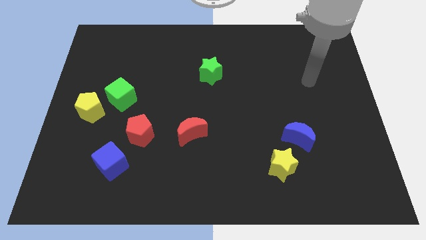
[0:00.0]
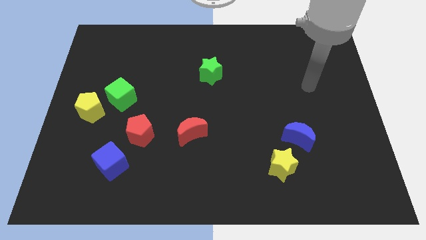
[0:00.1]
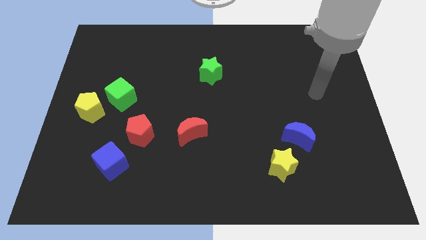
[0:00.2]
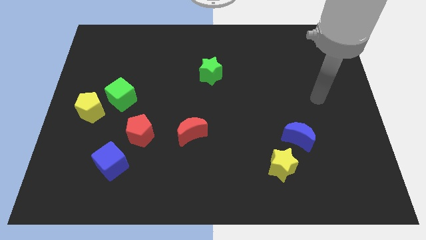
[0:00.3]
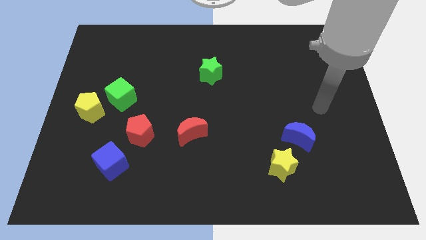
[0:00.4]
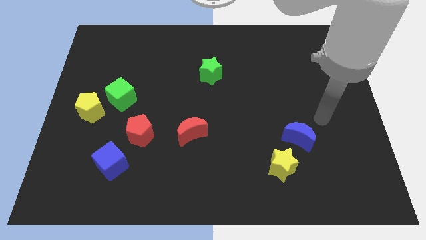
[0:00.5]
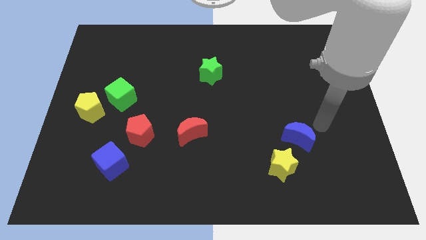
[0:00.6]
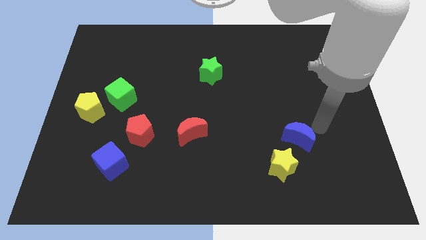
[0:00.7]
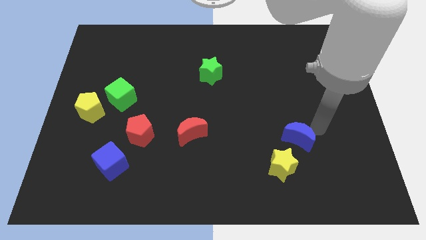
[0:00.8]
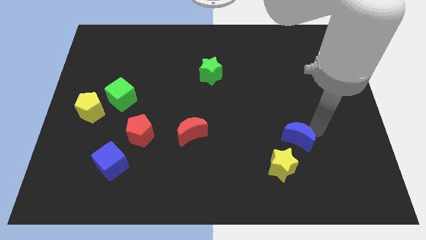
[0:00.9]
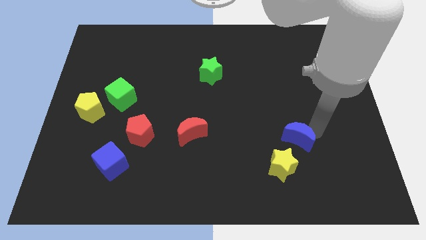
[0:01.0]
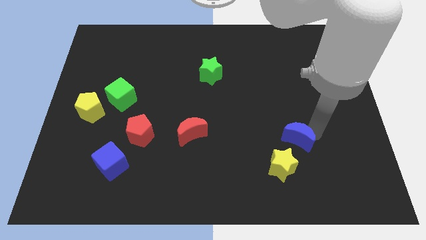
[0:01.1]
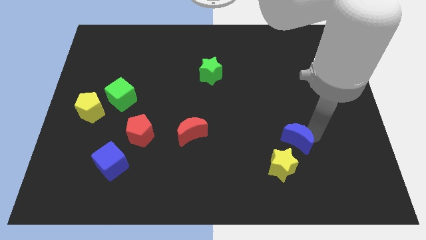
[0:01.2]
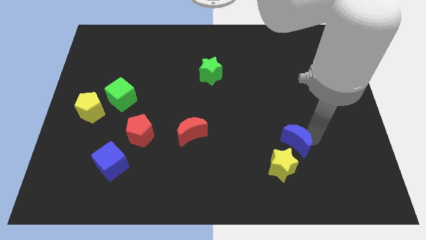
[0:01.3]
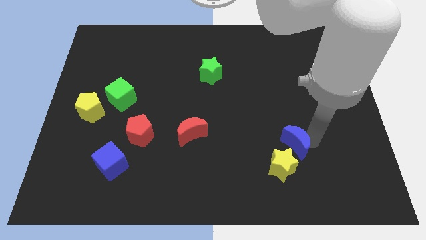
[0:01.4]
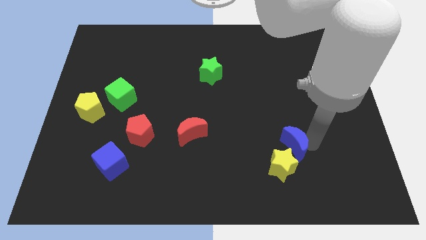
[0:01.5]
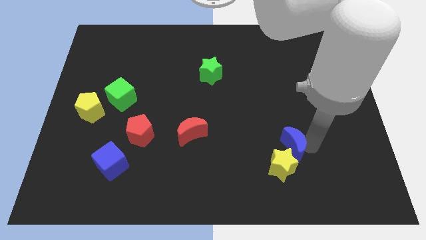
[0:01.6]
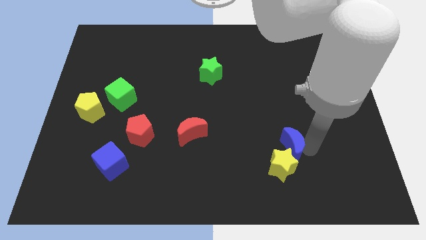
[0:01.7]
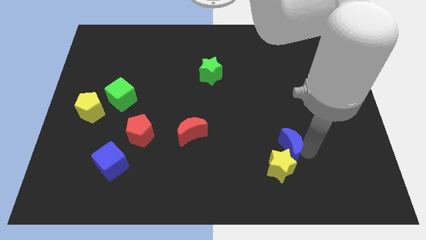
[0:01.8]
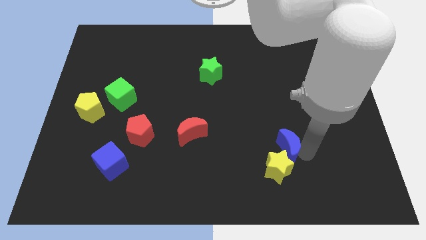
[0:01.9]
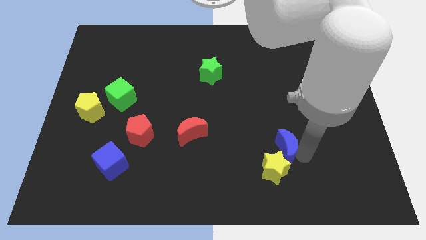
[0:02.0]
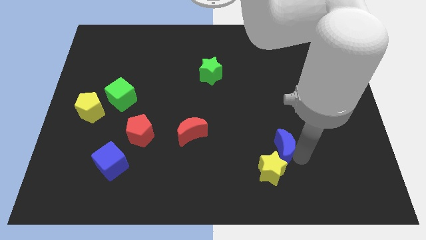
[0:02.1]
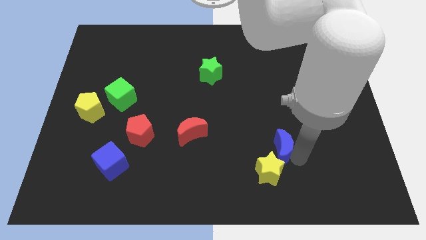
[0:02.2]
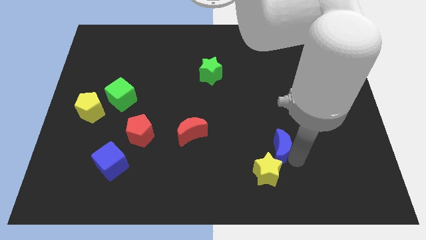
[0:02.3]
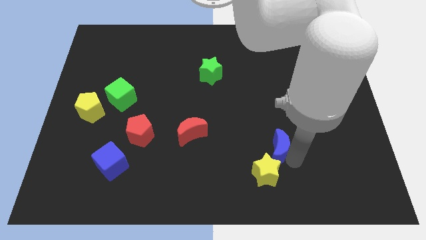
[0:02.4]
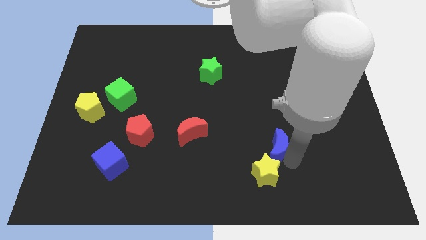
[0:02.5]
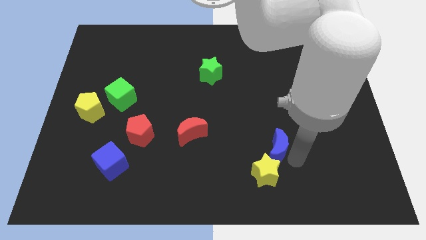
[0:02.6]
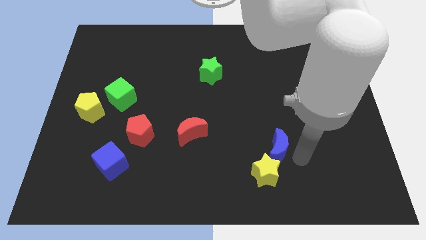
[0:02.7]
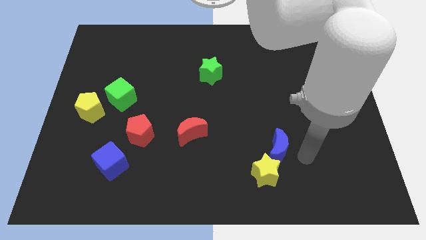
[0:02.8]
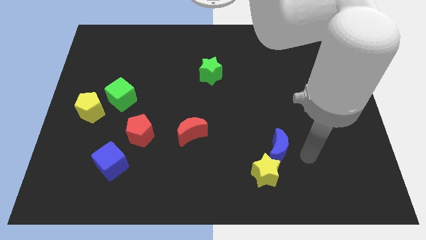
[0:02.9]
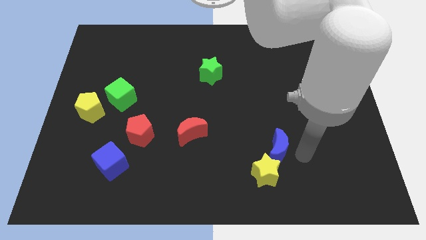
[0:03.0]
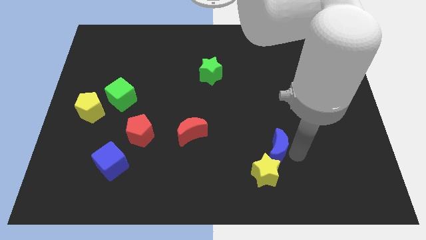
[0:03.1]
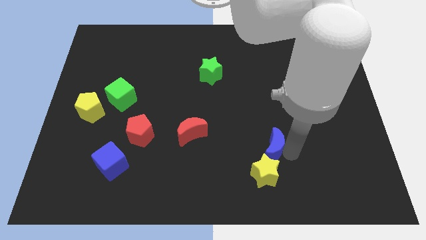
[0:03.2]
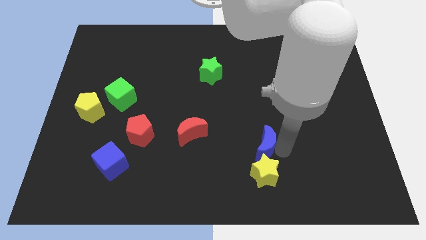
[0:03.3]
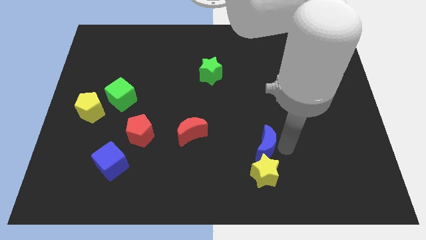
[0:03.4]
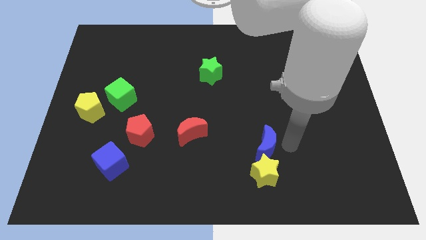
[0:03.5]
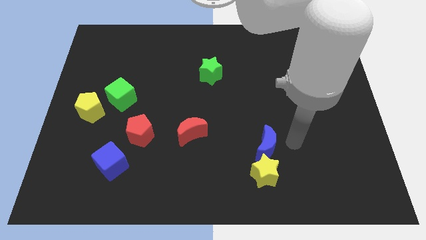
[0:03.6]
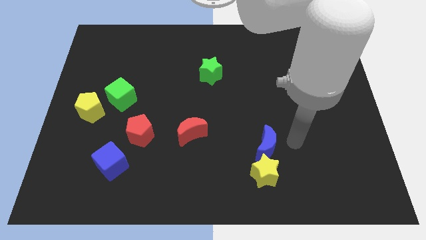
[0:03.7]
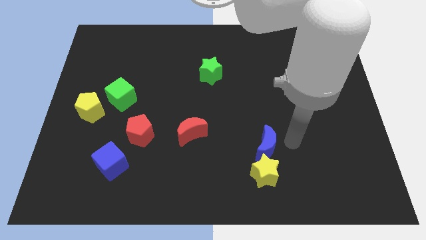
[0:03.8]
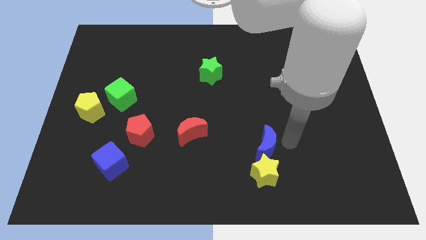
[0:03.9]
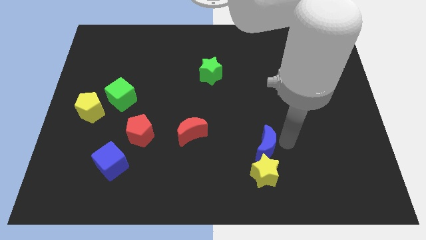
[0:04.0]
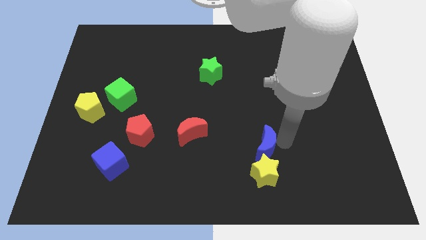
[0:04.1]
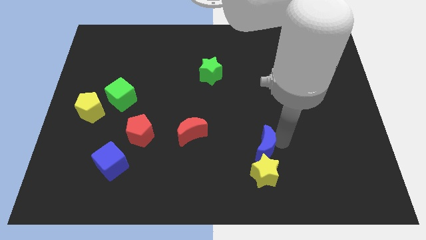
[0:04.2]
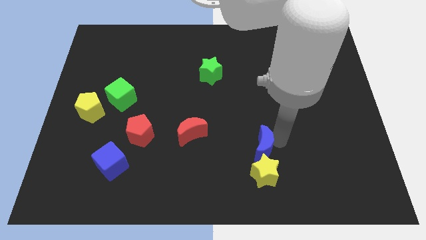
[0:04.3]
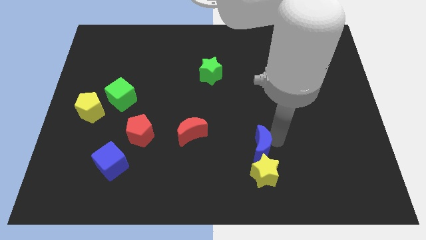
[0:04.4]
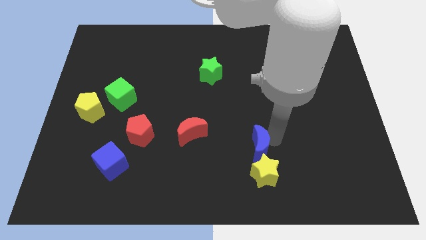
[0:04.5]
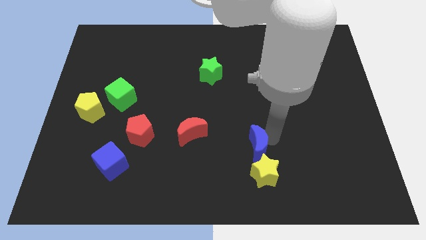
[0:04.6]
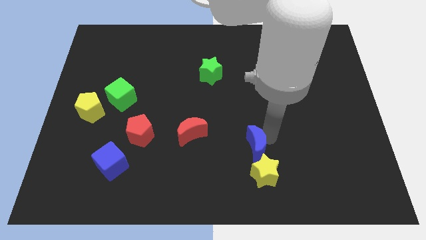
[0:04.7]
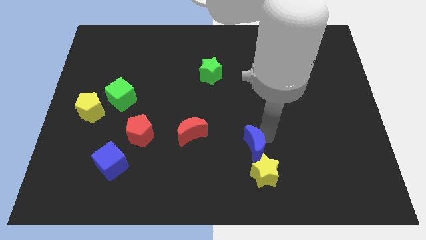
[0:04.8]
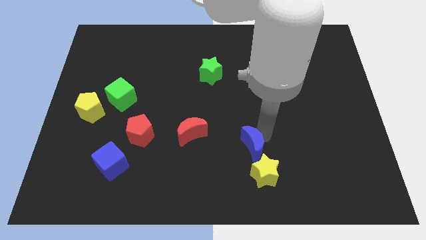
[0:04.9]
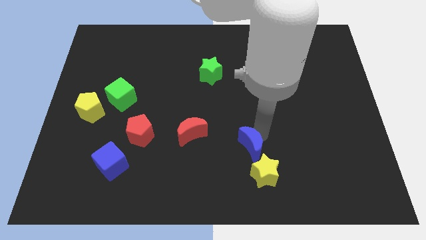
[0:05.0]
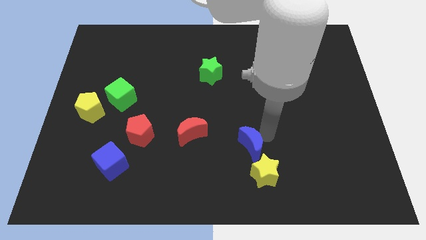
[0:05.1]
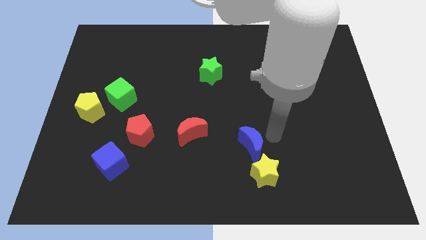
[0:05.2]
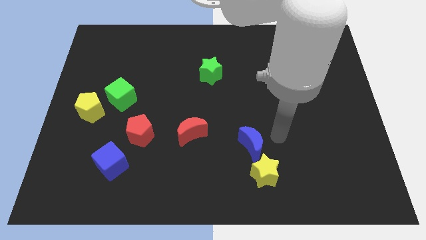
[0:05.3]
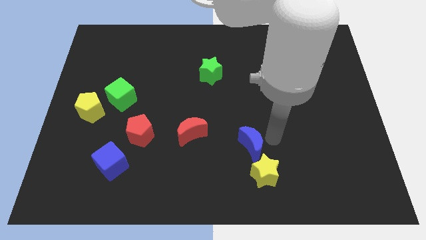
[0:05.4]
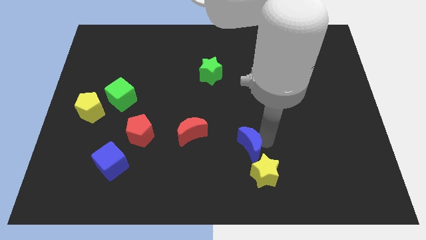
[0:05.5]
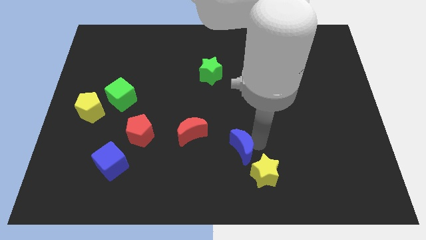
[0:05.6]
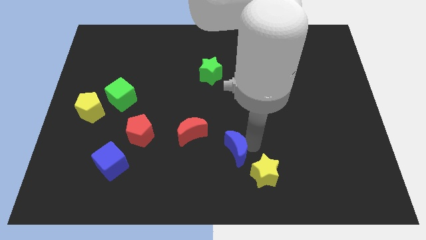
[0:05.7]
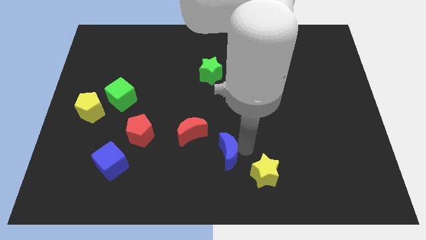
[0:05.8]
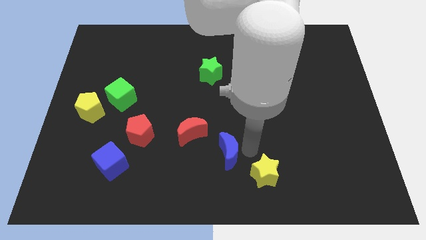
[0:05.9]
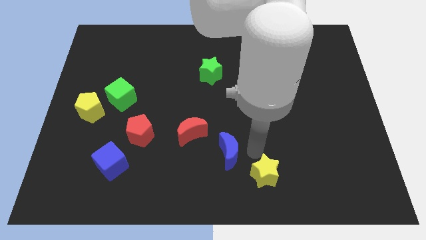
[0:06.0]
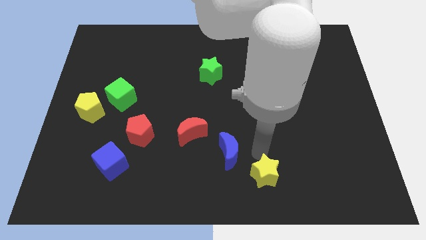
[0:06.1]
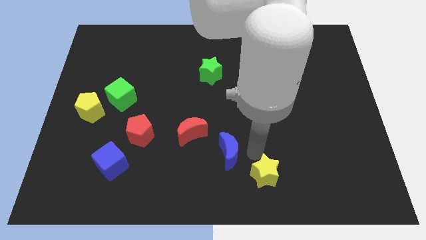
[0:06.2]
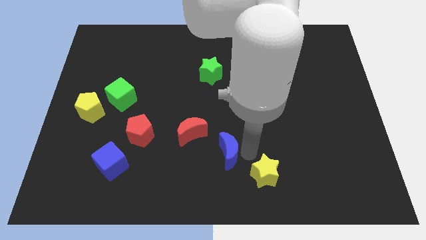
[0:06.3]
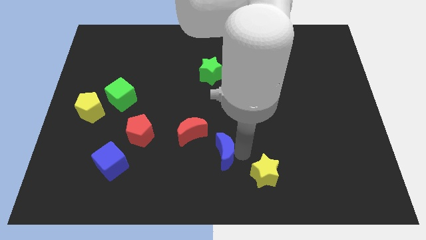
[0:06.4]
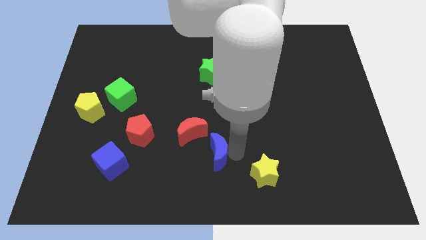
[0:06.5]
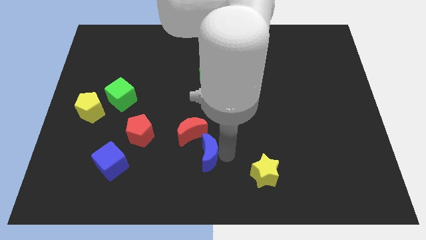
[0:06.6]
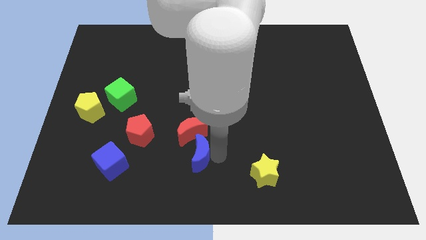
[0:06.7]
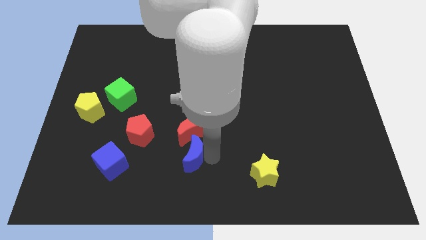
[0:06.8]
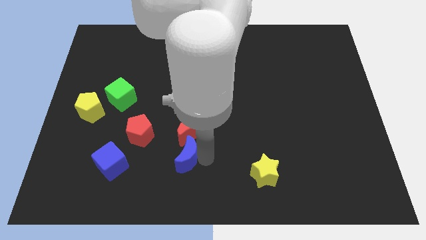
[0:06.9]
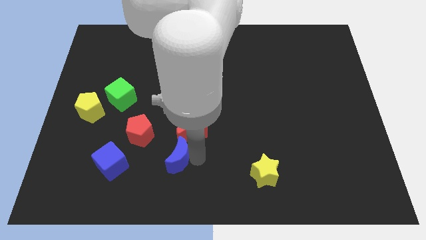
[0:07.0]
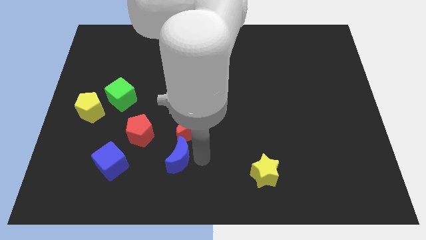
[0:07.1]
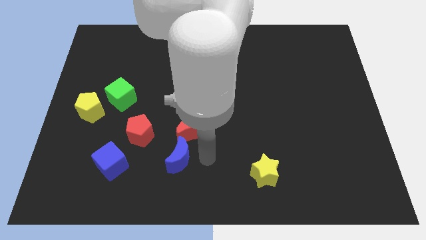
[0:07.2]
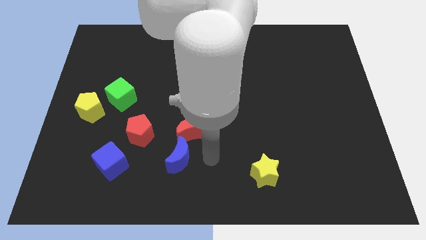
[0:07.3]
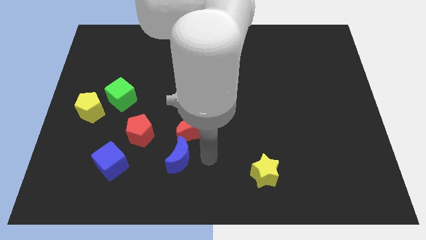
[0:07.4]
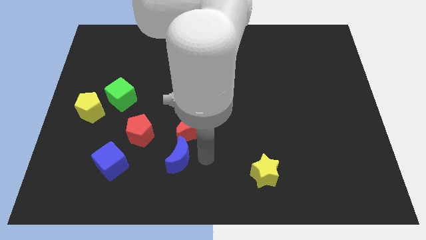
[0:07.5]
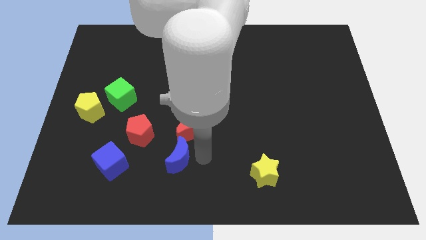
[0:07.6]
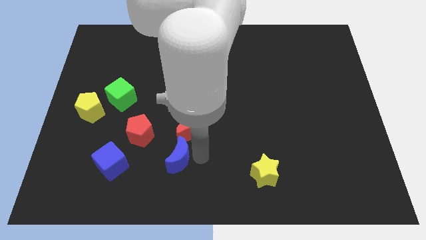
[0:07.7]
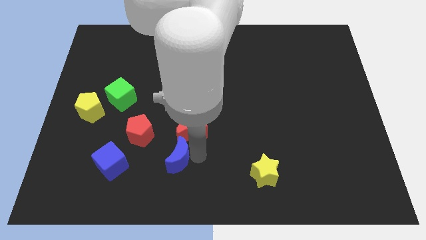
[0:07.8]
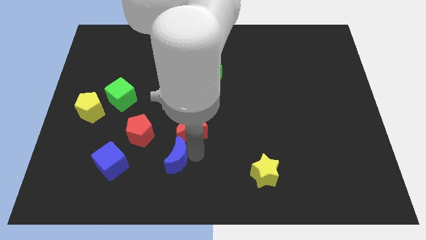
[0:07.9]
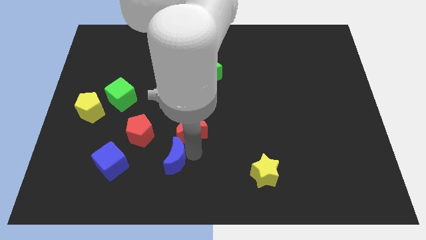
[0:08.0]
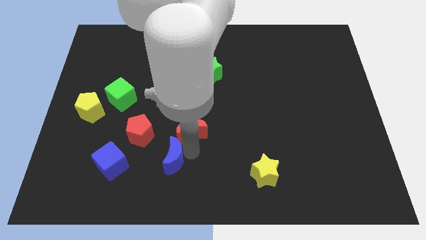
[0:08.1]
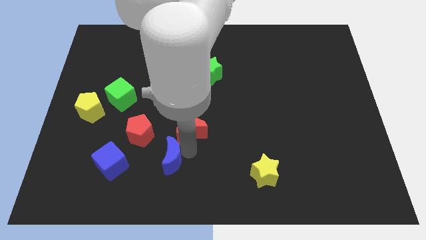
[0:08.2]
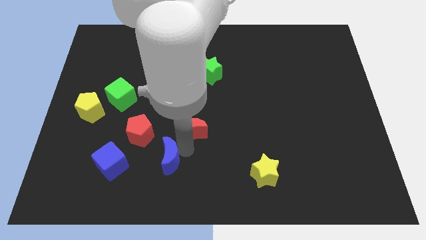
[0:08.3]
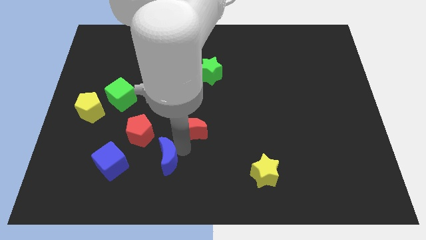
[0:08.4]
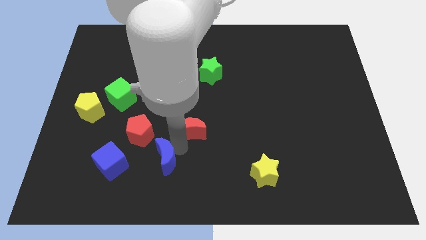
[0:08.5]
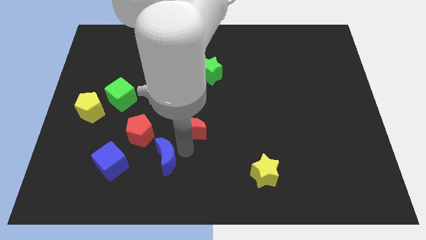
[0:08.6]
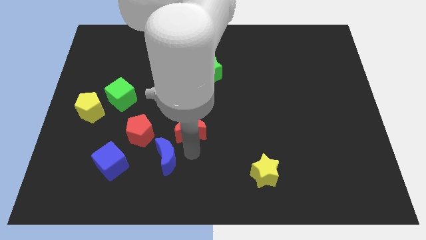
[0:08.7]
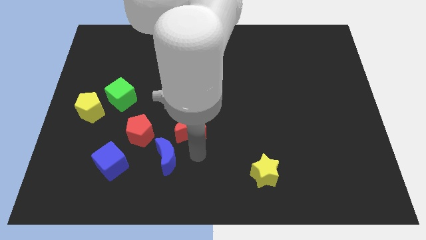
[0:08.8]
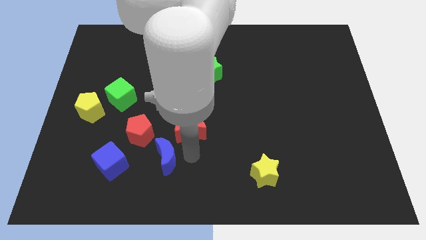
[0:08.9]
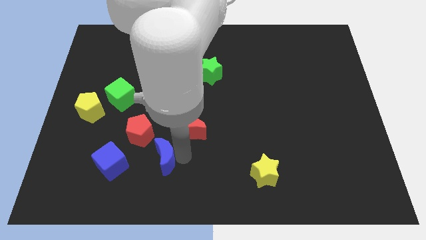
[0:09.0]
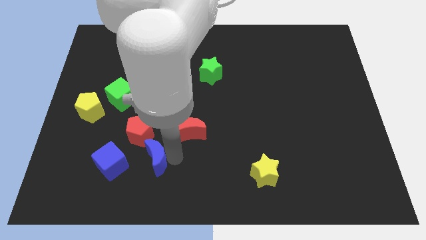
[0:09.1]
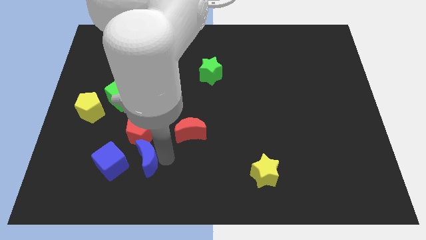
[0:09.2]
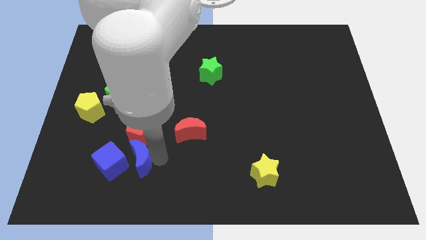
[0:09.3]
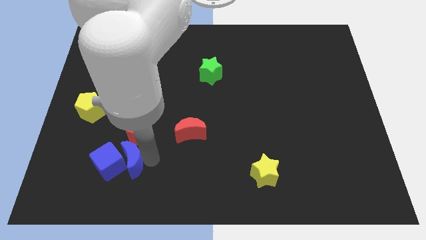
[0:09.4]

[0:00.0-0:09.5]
move the blue moon next to the blue cube
